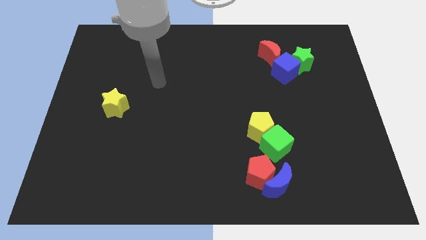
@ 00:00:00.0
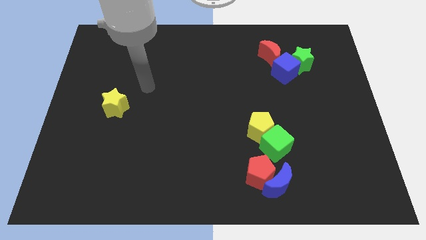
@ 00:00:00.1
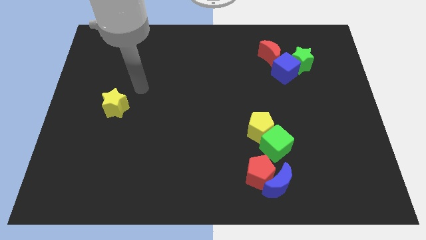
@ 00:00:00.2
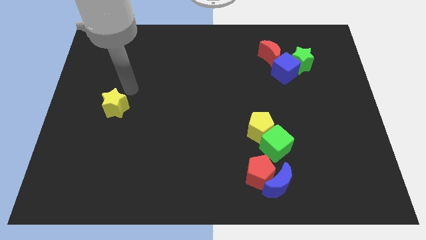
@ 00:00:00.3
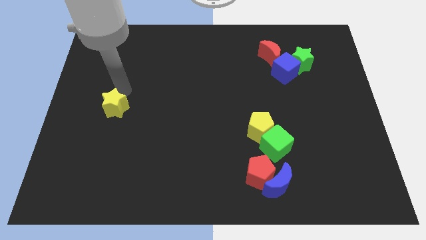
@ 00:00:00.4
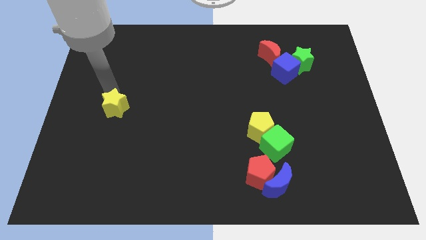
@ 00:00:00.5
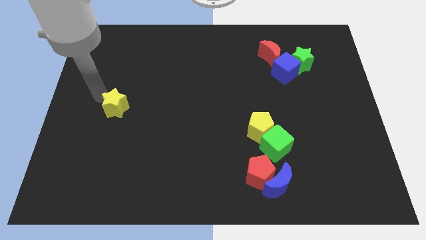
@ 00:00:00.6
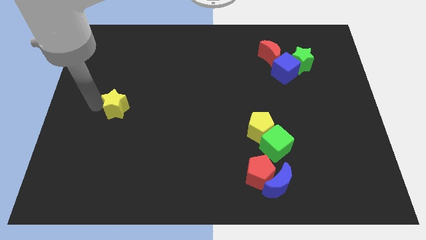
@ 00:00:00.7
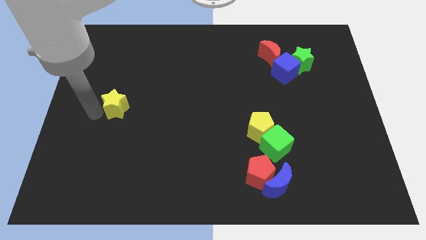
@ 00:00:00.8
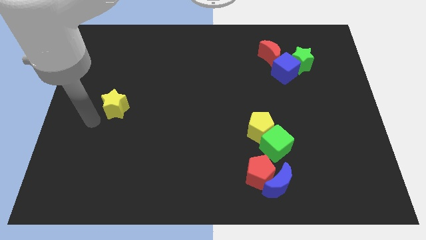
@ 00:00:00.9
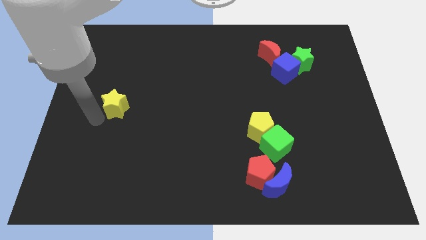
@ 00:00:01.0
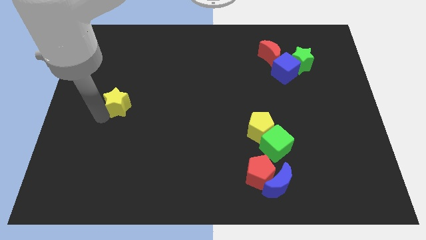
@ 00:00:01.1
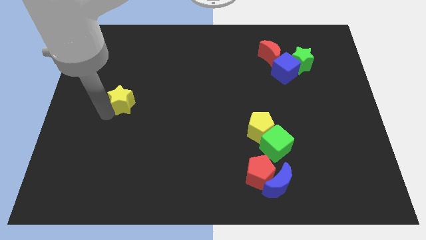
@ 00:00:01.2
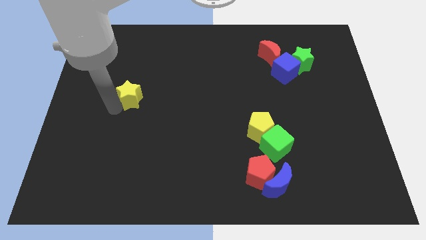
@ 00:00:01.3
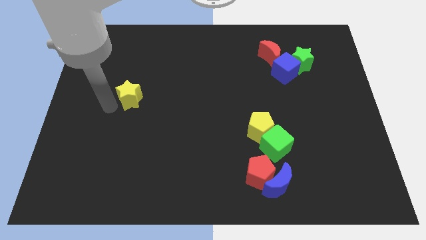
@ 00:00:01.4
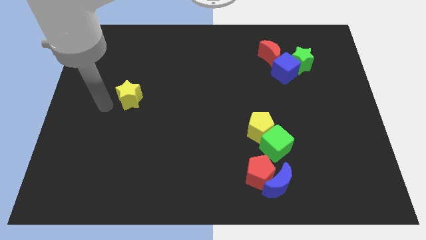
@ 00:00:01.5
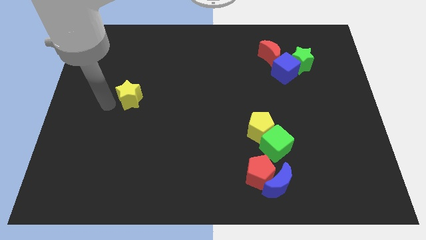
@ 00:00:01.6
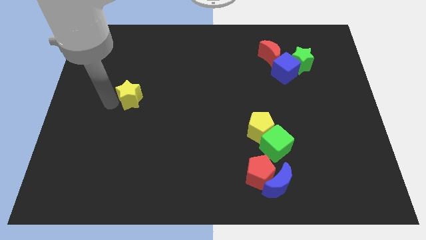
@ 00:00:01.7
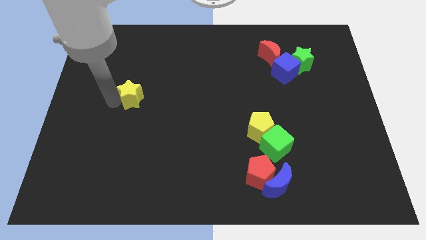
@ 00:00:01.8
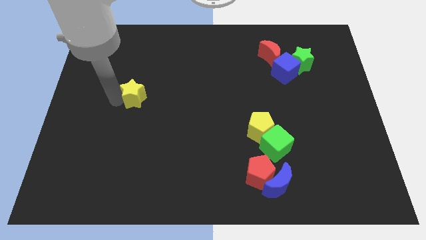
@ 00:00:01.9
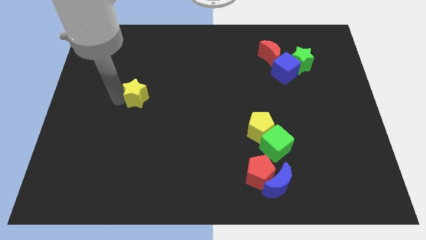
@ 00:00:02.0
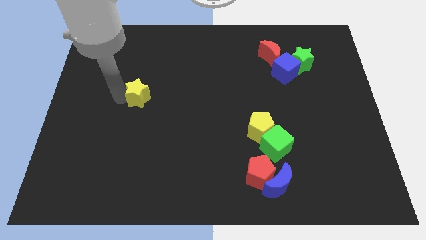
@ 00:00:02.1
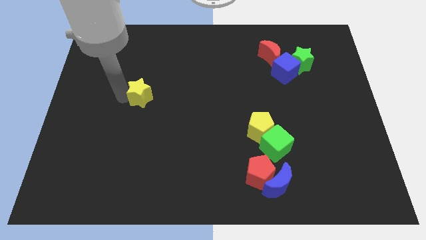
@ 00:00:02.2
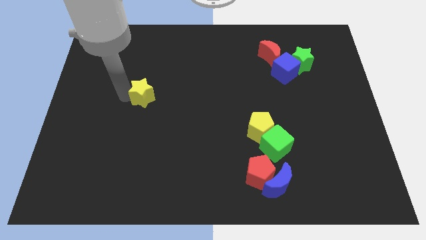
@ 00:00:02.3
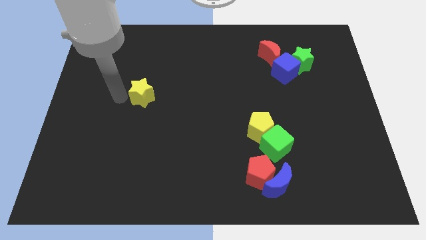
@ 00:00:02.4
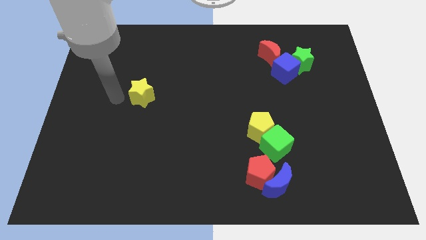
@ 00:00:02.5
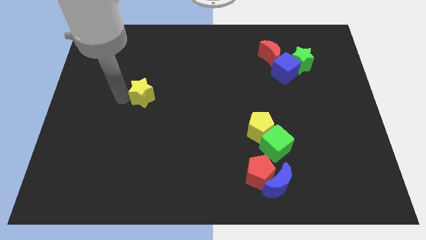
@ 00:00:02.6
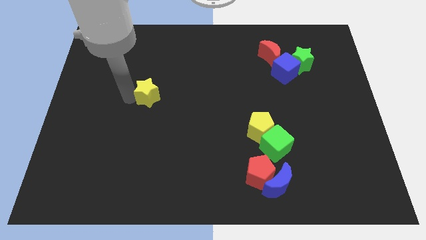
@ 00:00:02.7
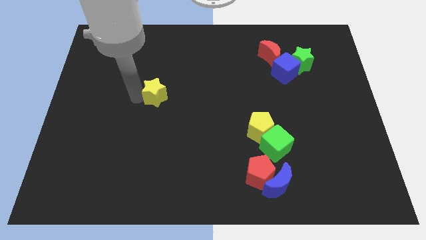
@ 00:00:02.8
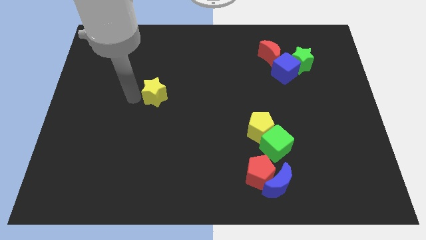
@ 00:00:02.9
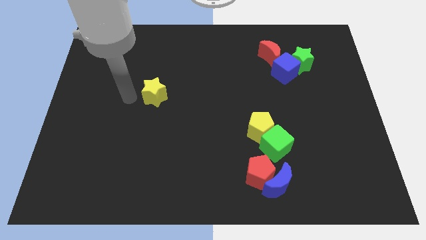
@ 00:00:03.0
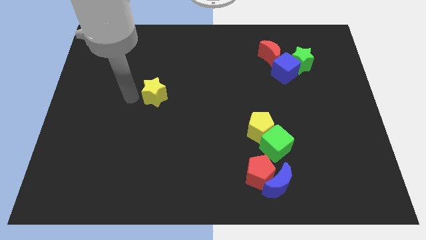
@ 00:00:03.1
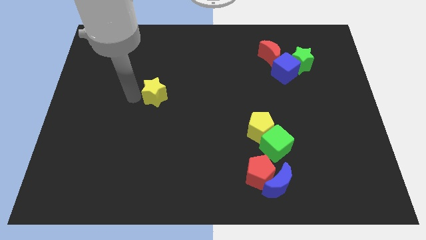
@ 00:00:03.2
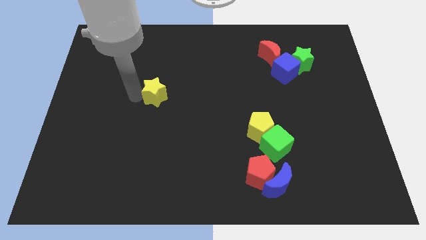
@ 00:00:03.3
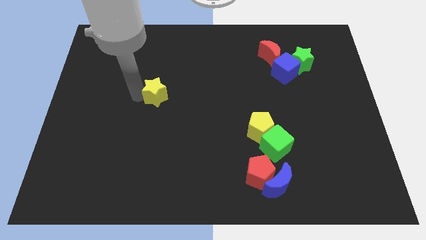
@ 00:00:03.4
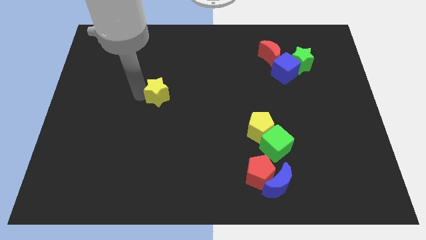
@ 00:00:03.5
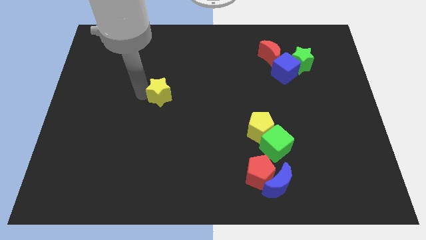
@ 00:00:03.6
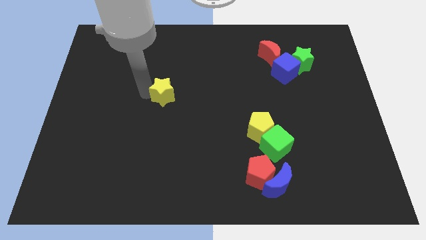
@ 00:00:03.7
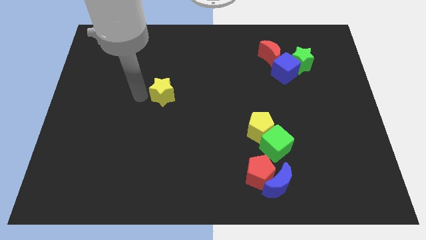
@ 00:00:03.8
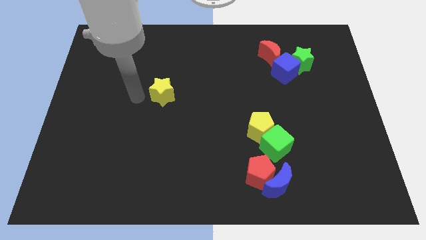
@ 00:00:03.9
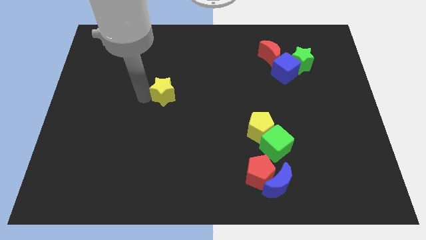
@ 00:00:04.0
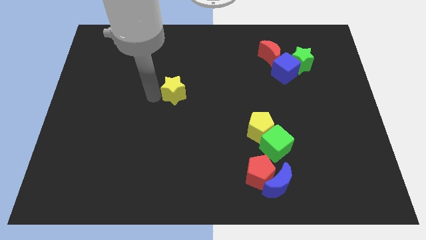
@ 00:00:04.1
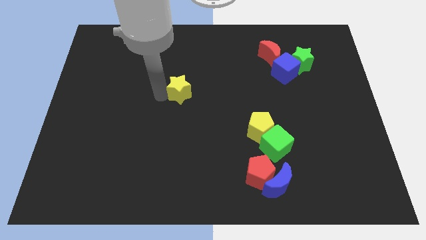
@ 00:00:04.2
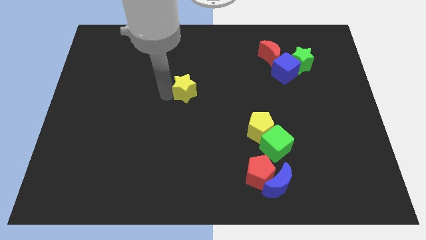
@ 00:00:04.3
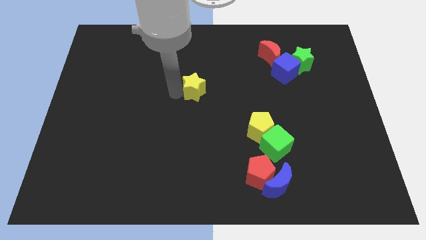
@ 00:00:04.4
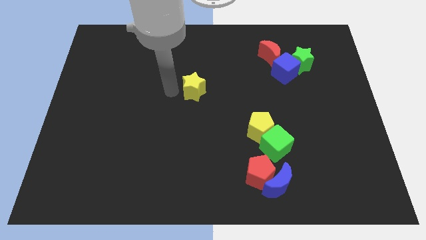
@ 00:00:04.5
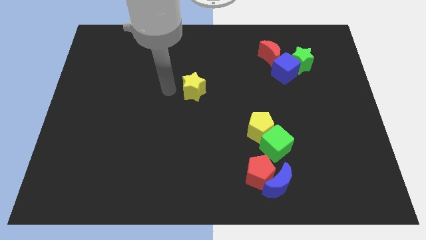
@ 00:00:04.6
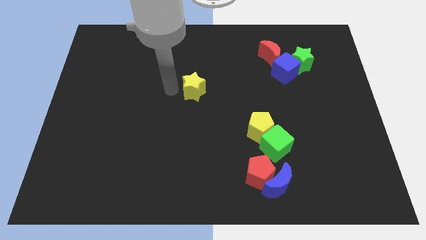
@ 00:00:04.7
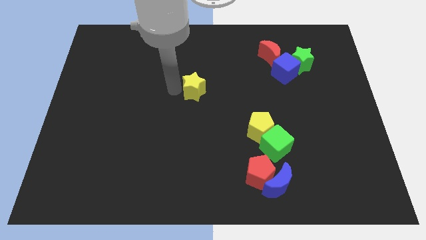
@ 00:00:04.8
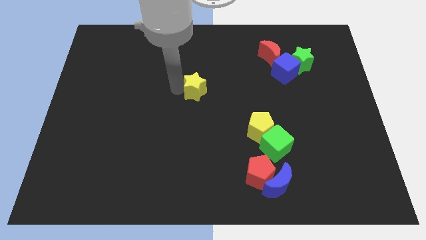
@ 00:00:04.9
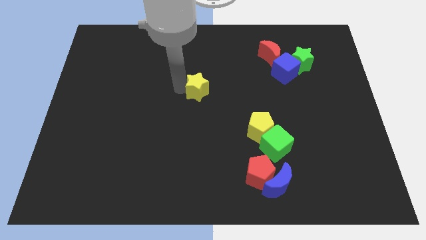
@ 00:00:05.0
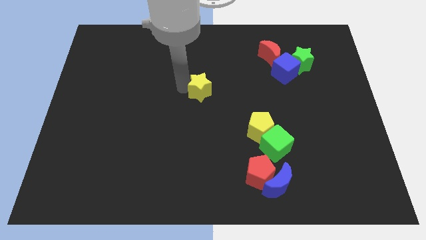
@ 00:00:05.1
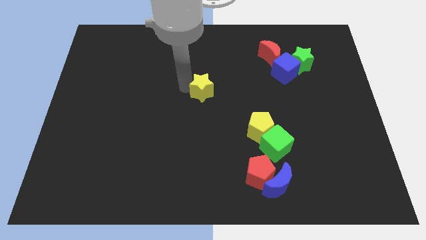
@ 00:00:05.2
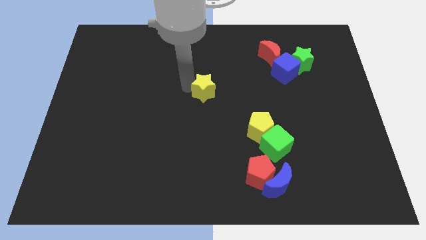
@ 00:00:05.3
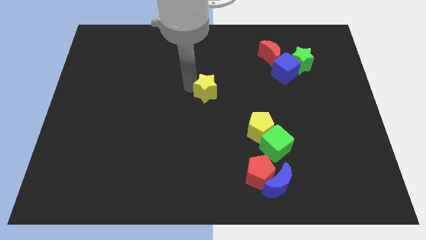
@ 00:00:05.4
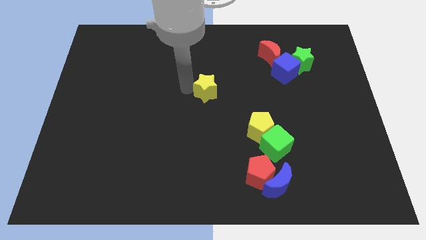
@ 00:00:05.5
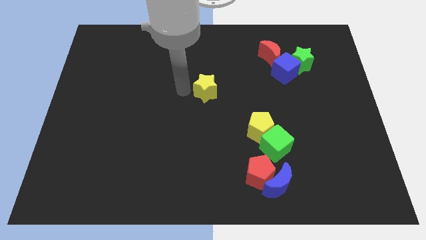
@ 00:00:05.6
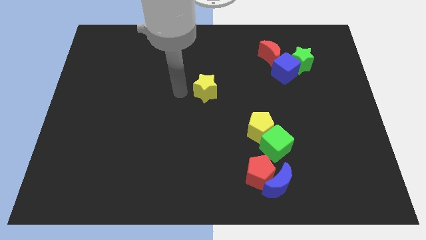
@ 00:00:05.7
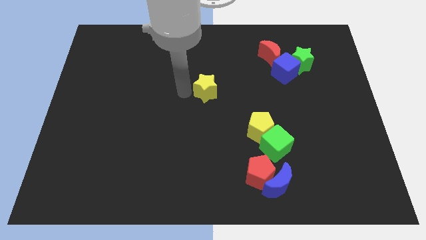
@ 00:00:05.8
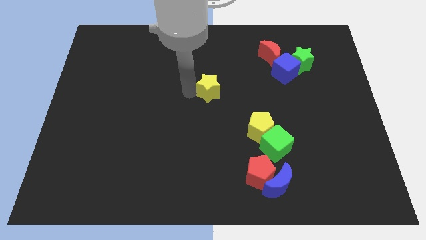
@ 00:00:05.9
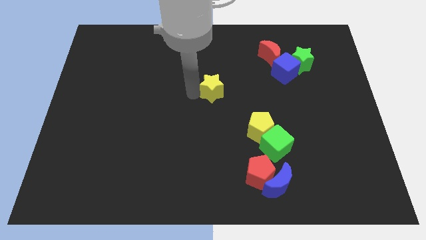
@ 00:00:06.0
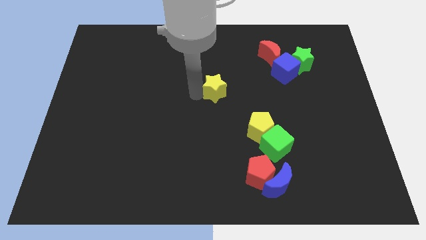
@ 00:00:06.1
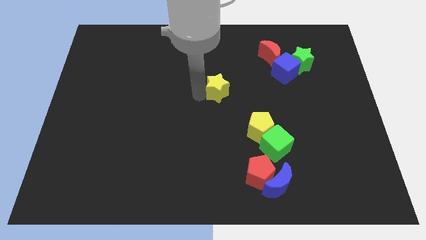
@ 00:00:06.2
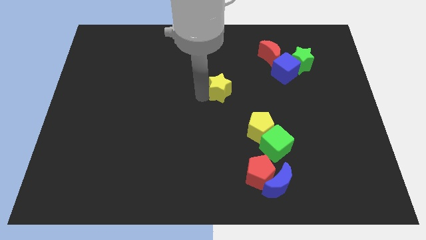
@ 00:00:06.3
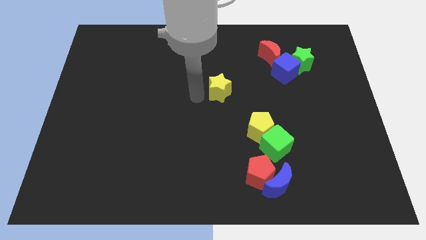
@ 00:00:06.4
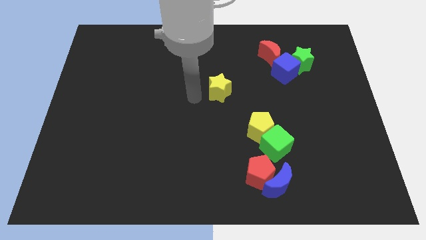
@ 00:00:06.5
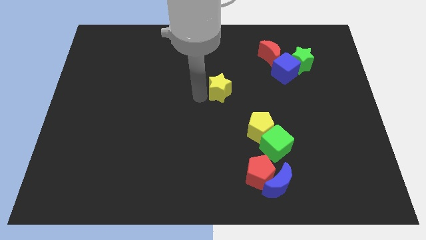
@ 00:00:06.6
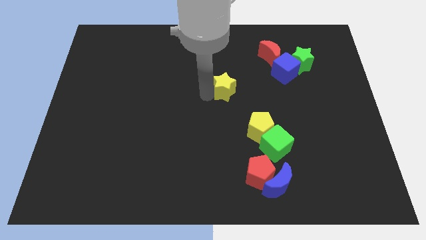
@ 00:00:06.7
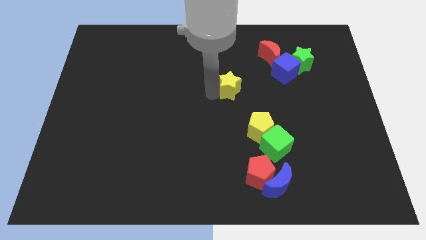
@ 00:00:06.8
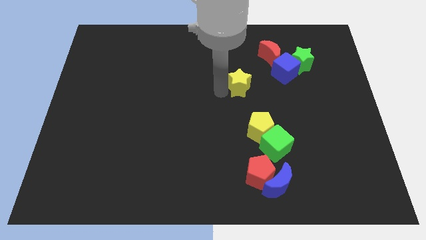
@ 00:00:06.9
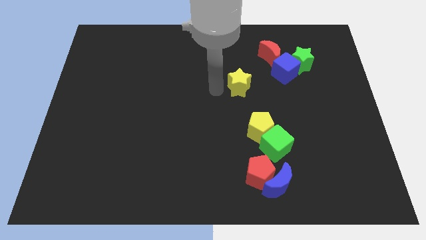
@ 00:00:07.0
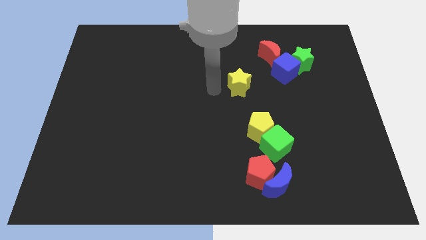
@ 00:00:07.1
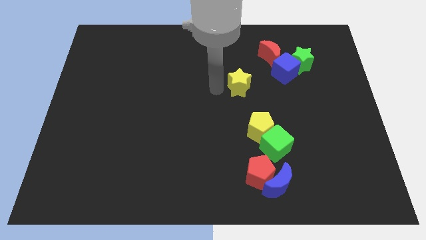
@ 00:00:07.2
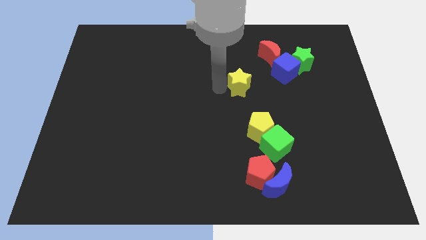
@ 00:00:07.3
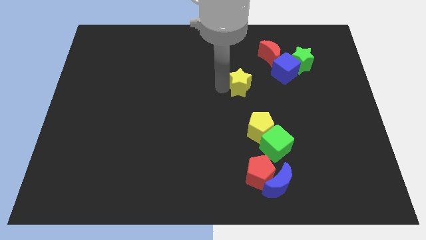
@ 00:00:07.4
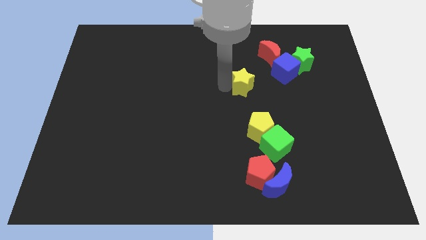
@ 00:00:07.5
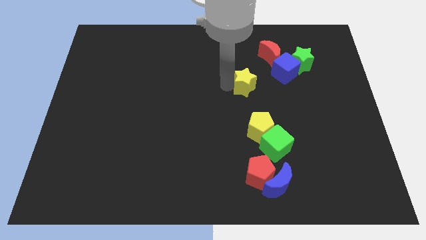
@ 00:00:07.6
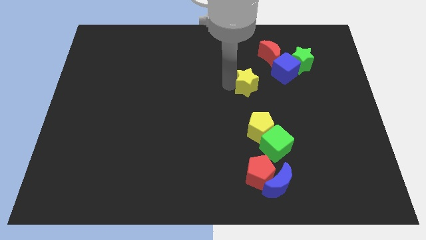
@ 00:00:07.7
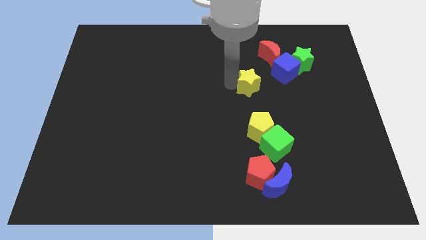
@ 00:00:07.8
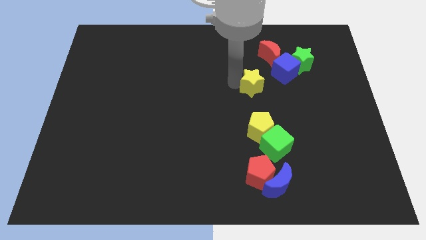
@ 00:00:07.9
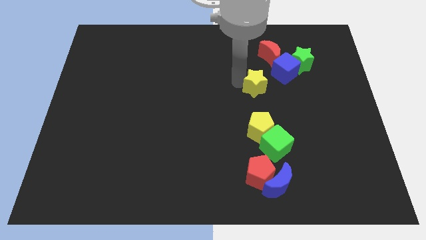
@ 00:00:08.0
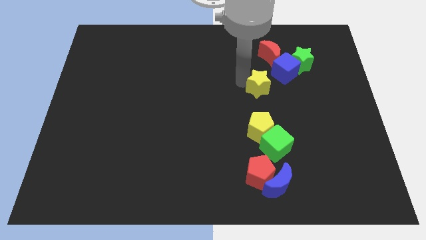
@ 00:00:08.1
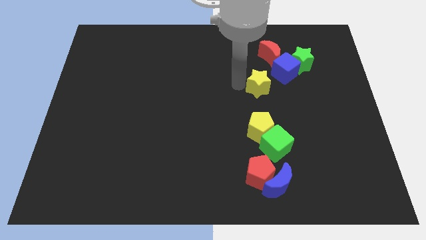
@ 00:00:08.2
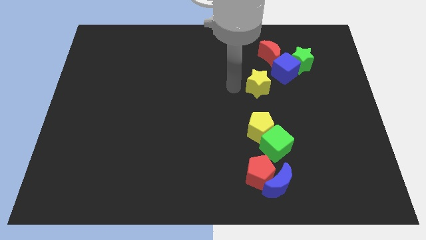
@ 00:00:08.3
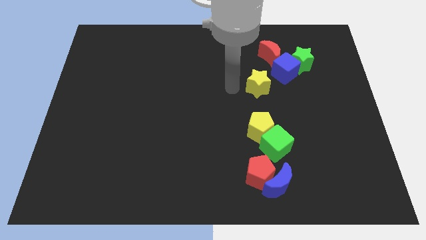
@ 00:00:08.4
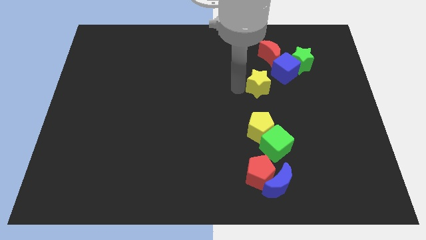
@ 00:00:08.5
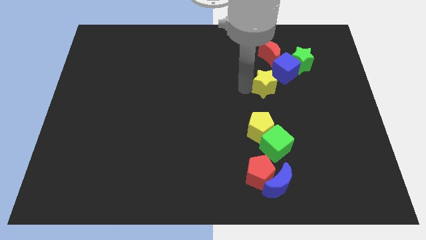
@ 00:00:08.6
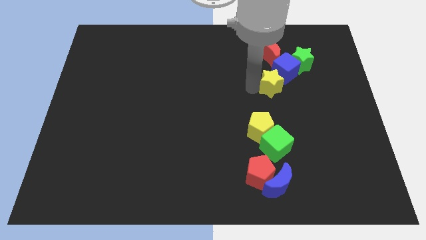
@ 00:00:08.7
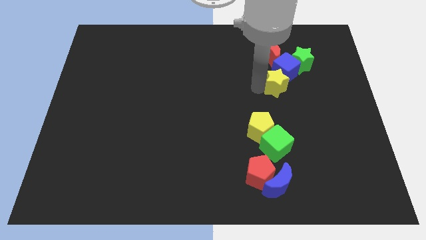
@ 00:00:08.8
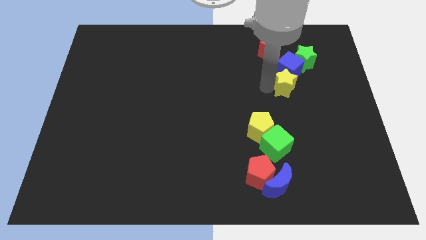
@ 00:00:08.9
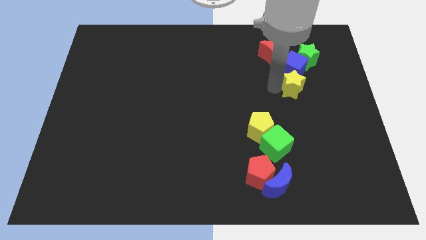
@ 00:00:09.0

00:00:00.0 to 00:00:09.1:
push the yellow star to the bottom right of the blue cube
